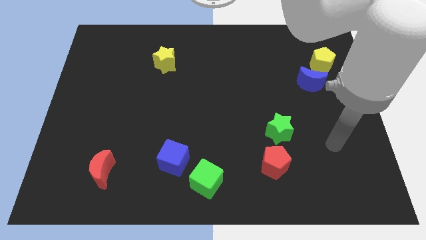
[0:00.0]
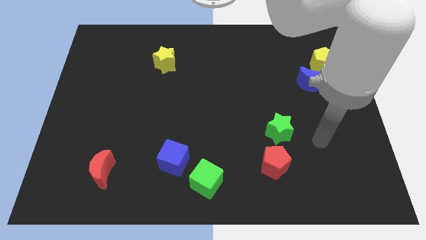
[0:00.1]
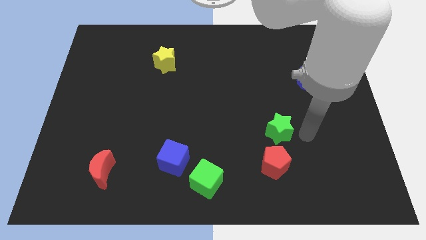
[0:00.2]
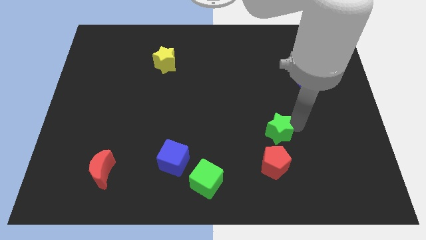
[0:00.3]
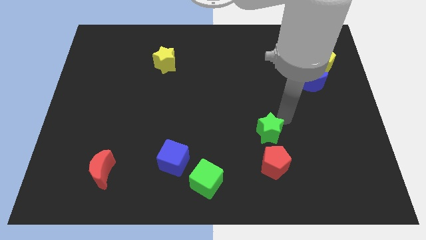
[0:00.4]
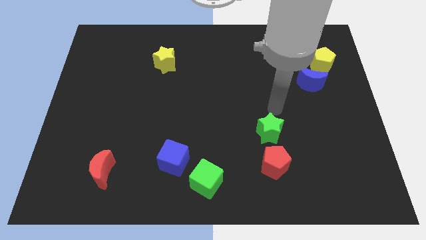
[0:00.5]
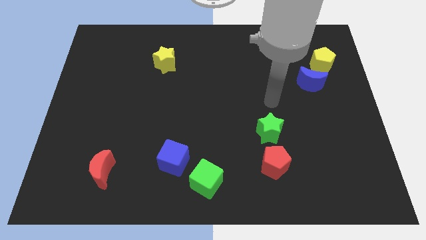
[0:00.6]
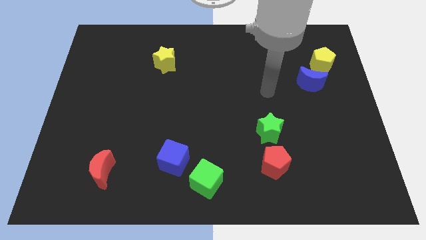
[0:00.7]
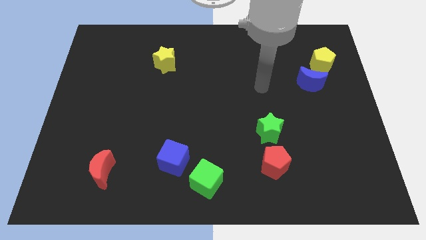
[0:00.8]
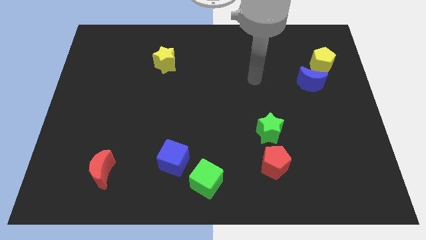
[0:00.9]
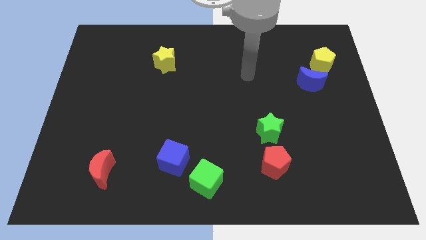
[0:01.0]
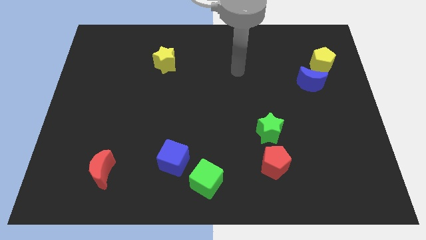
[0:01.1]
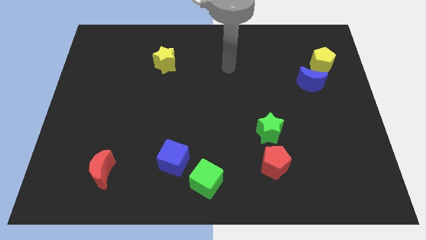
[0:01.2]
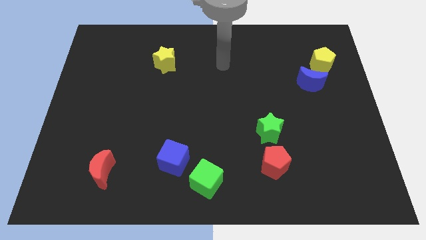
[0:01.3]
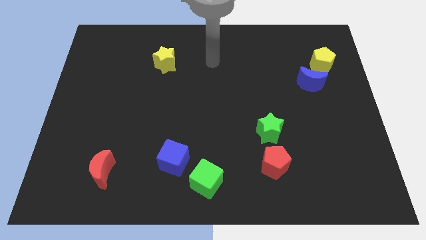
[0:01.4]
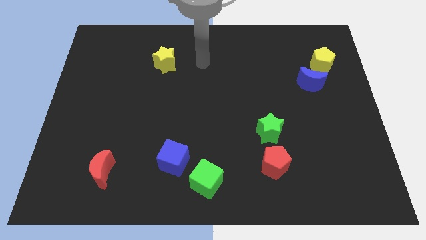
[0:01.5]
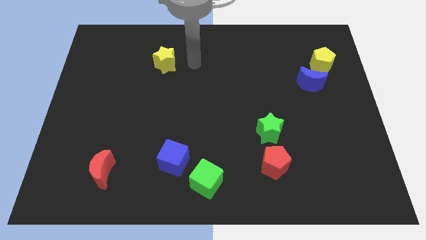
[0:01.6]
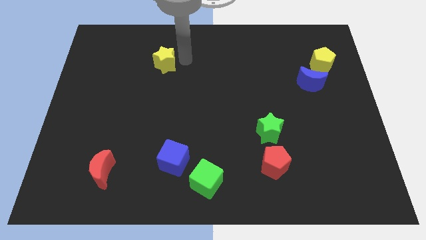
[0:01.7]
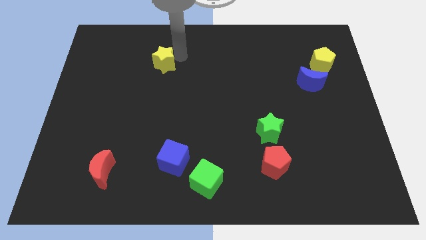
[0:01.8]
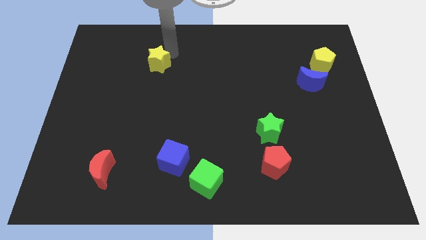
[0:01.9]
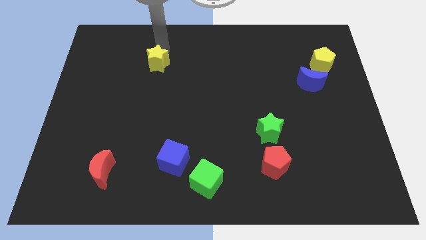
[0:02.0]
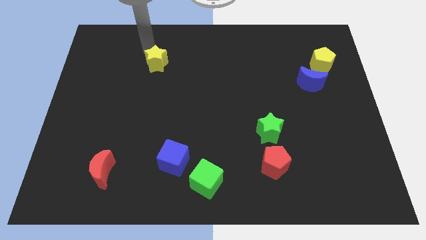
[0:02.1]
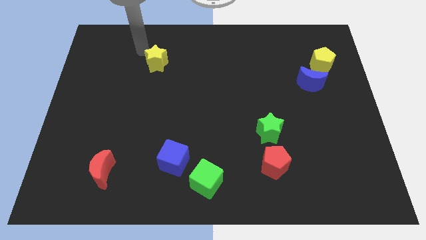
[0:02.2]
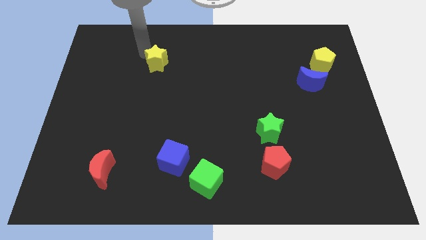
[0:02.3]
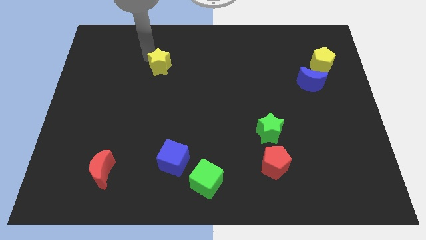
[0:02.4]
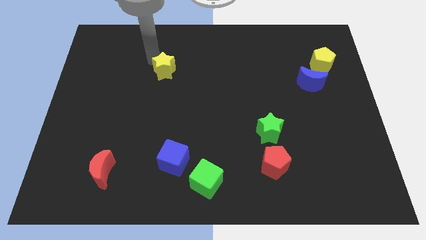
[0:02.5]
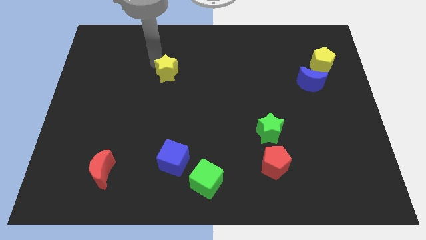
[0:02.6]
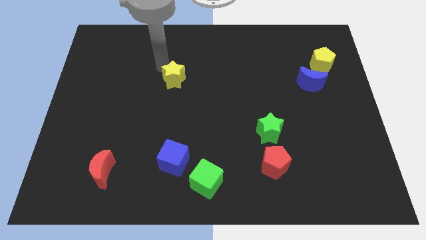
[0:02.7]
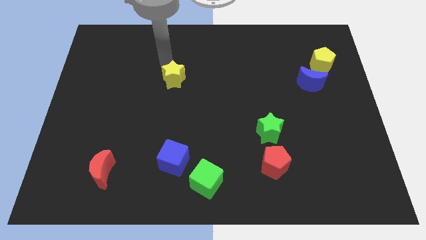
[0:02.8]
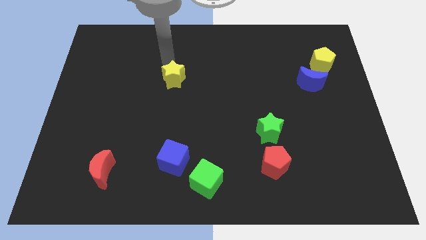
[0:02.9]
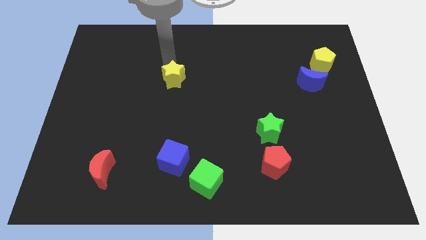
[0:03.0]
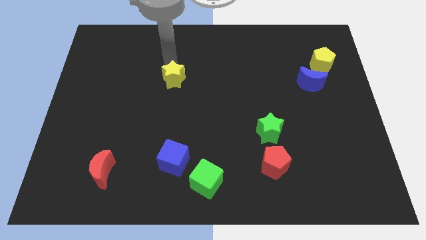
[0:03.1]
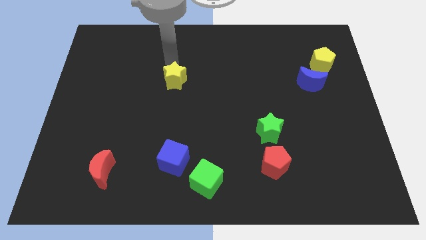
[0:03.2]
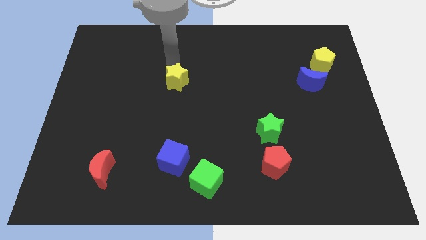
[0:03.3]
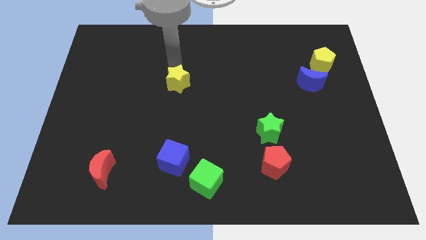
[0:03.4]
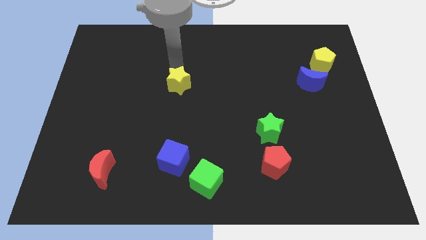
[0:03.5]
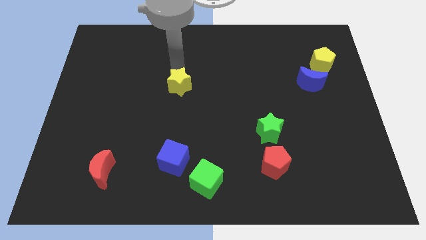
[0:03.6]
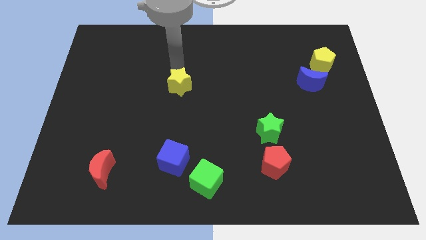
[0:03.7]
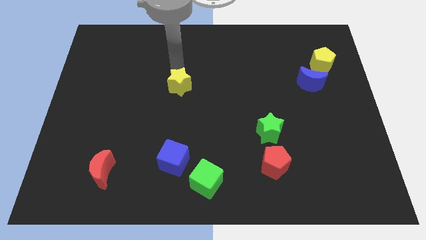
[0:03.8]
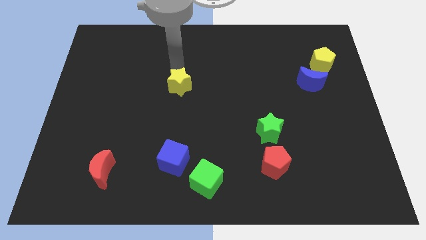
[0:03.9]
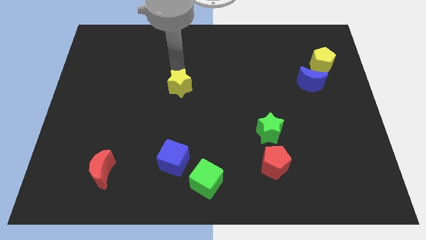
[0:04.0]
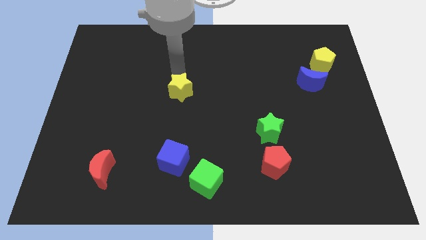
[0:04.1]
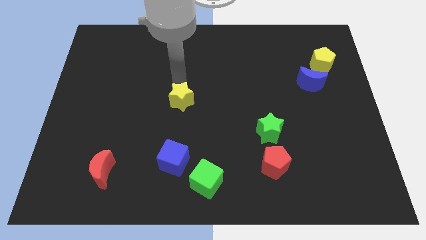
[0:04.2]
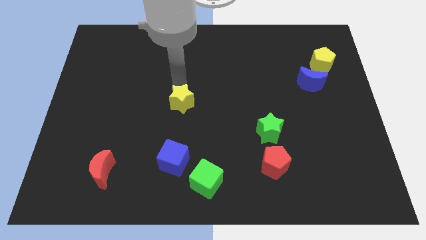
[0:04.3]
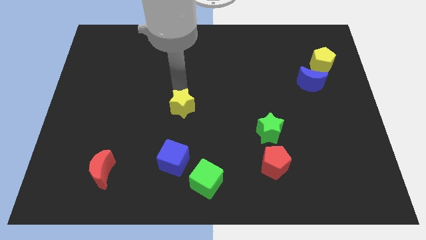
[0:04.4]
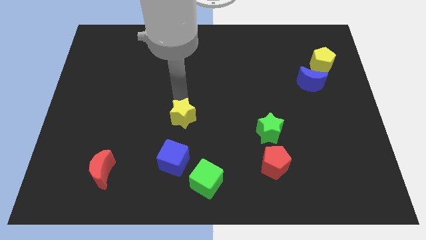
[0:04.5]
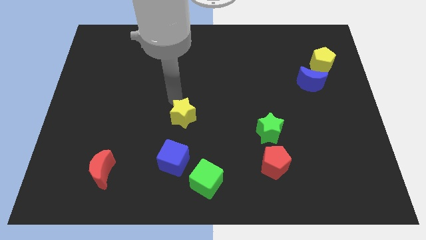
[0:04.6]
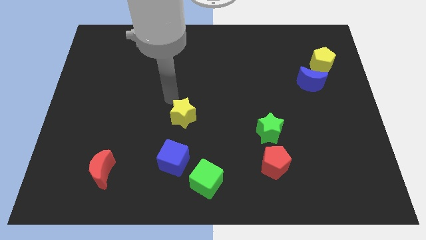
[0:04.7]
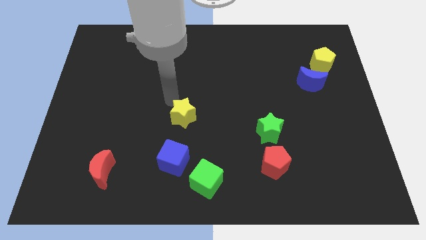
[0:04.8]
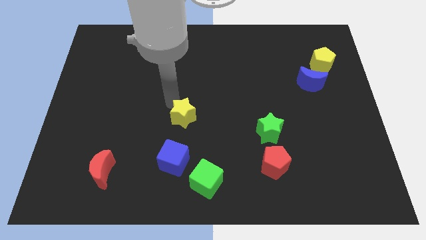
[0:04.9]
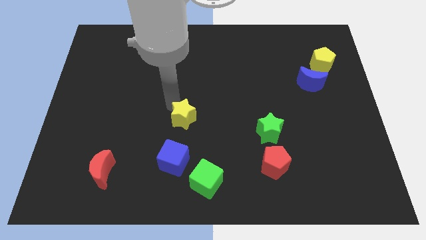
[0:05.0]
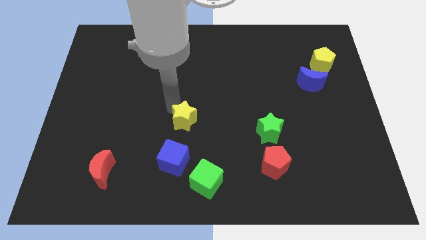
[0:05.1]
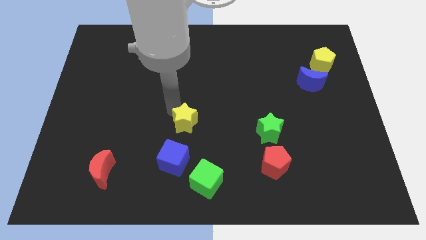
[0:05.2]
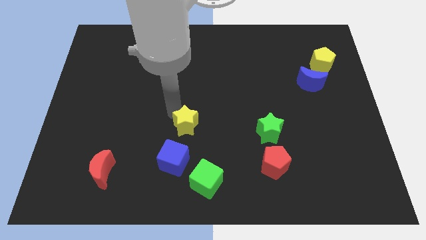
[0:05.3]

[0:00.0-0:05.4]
put the yellow star diagonally up and to the right of the blue cube

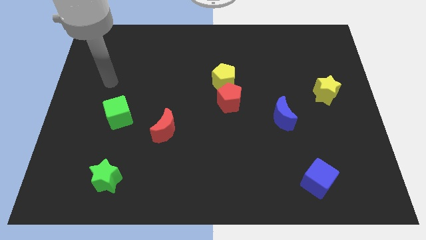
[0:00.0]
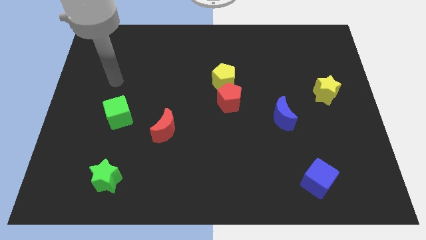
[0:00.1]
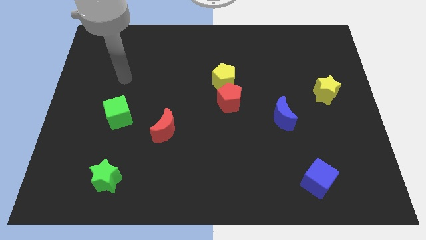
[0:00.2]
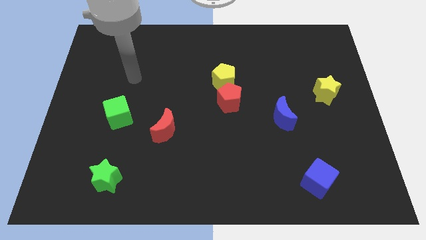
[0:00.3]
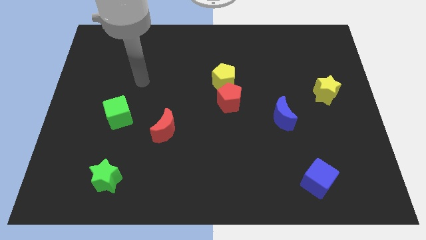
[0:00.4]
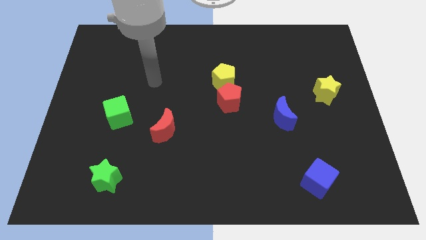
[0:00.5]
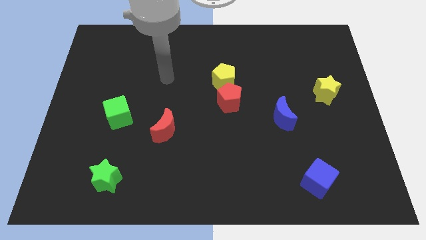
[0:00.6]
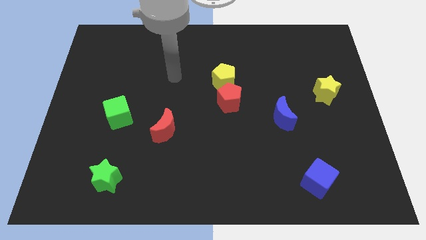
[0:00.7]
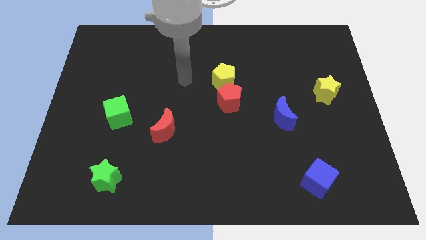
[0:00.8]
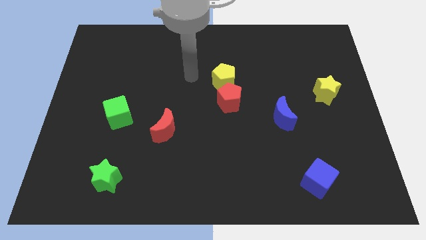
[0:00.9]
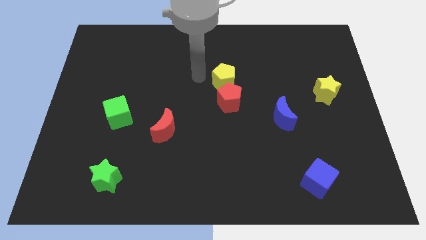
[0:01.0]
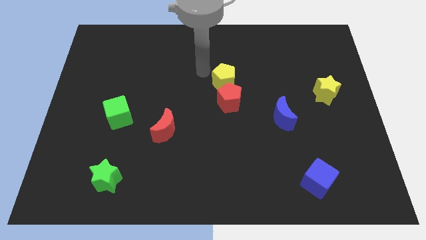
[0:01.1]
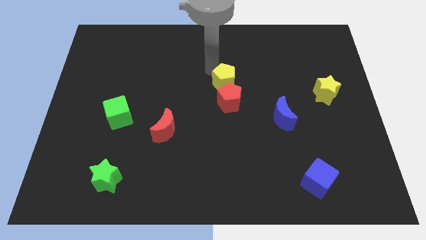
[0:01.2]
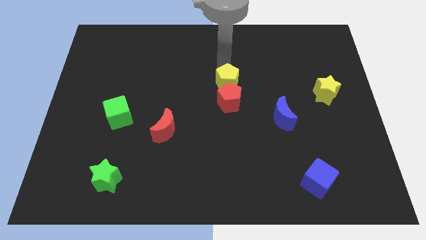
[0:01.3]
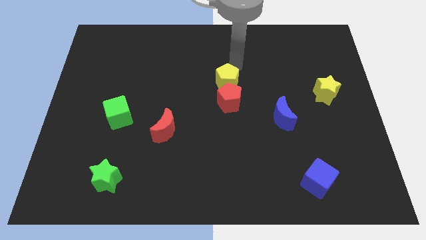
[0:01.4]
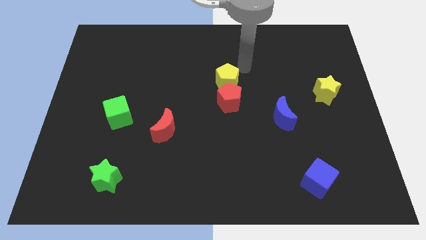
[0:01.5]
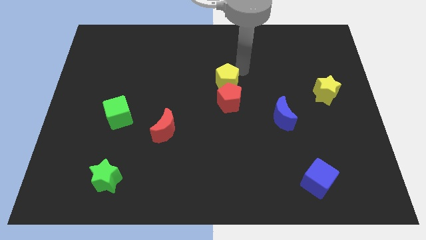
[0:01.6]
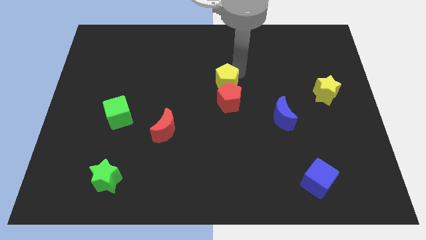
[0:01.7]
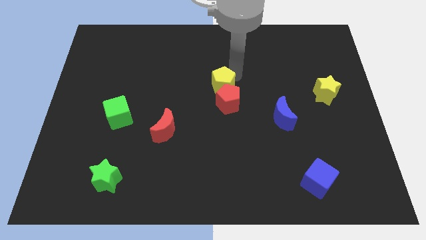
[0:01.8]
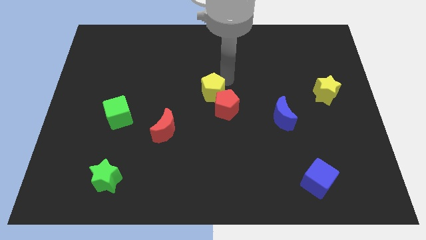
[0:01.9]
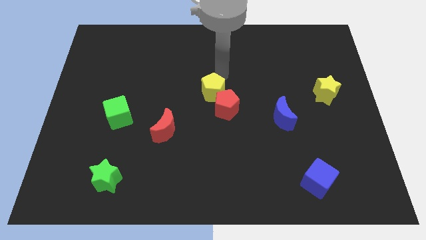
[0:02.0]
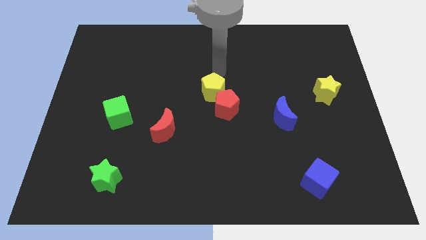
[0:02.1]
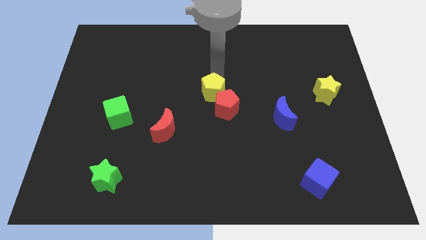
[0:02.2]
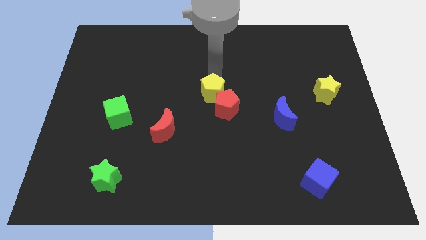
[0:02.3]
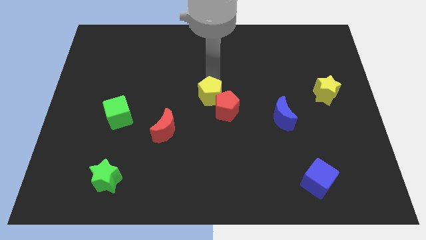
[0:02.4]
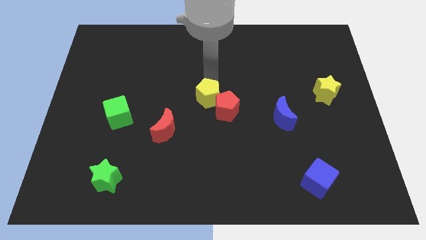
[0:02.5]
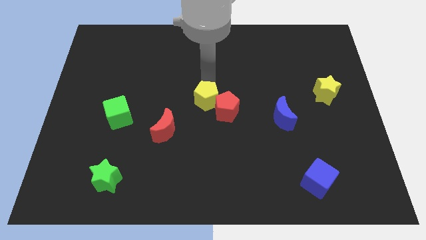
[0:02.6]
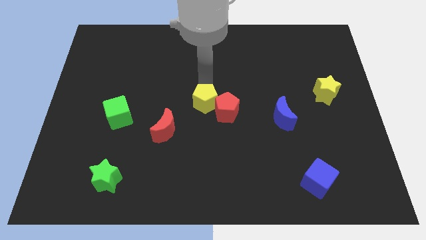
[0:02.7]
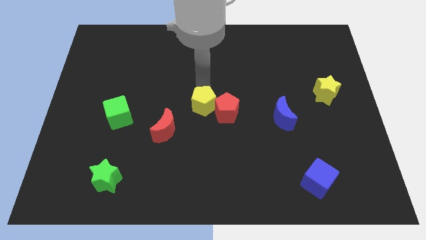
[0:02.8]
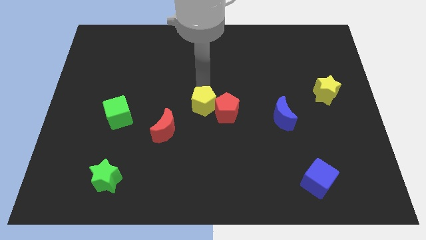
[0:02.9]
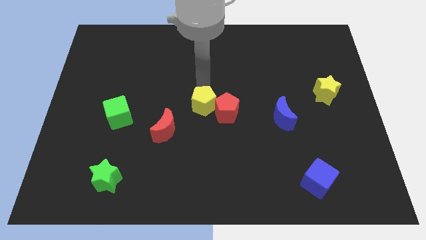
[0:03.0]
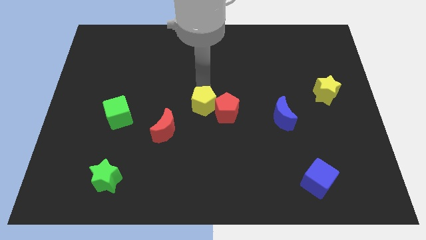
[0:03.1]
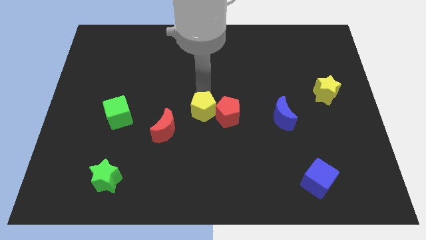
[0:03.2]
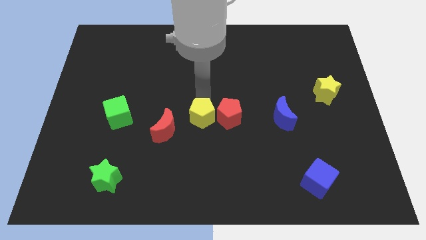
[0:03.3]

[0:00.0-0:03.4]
slide the yellow pentagon diagonally down and to the left of the red pentagon
